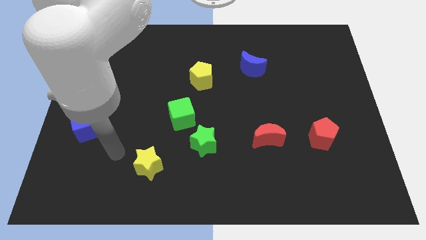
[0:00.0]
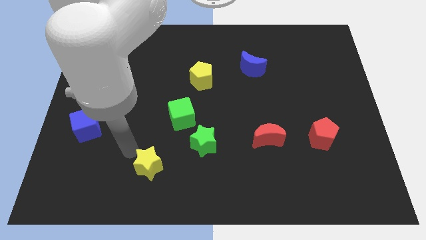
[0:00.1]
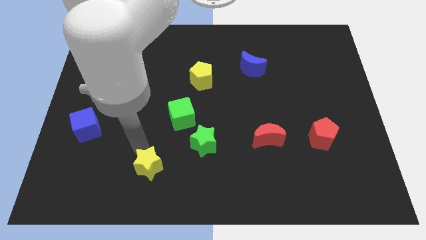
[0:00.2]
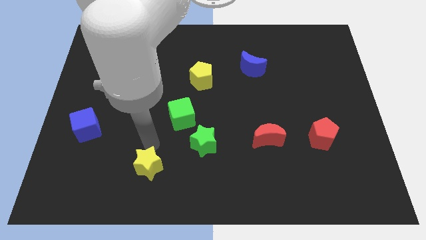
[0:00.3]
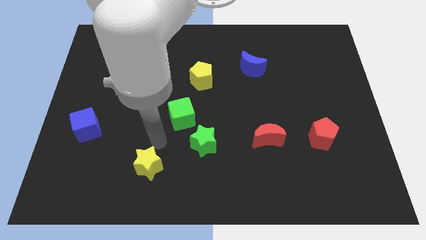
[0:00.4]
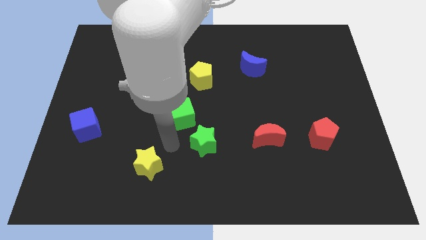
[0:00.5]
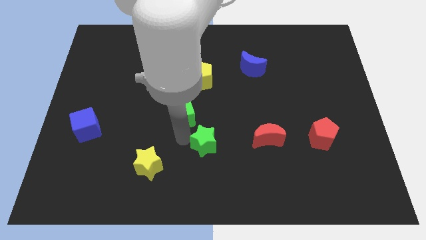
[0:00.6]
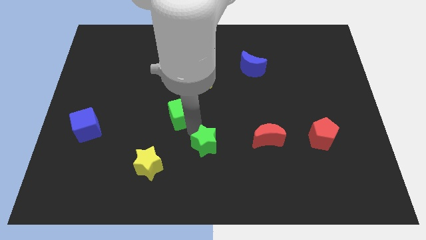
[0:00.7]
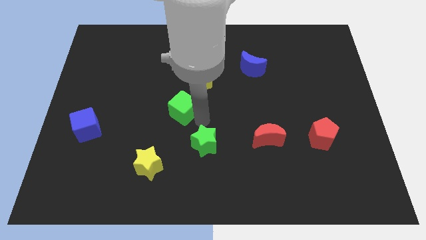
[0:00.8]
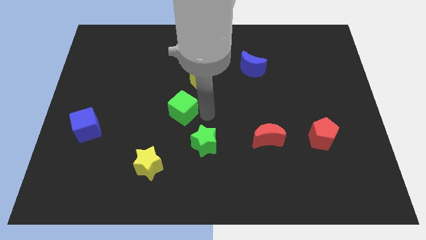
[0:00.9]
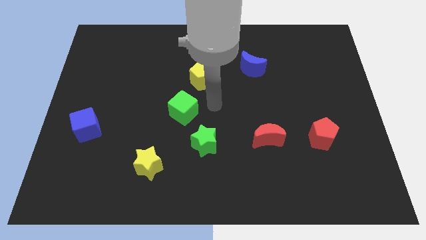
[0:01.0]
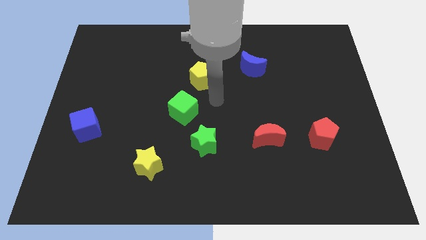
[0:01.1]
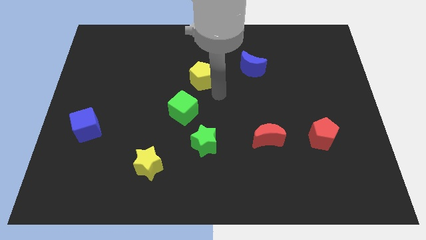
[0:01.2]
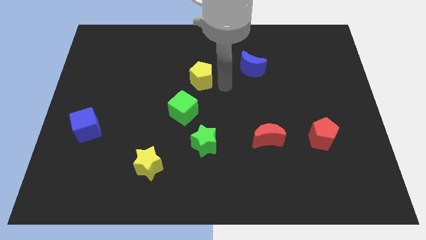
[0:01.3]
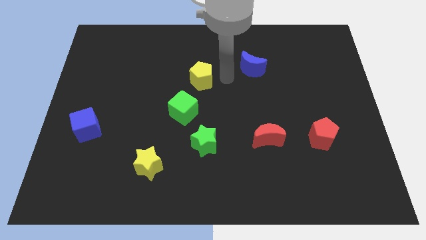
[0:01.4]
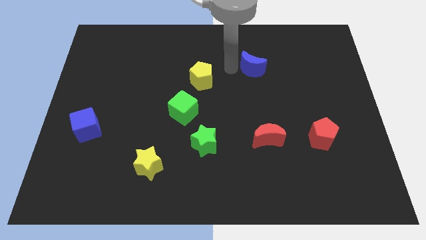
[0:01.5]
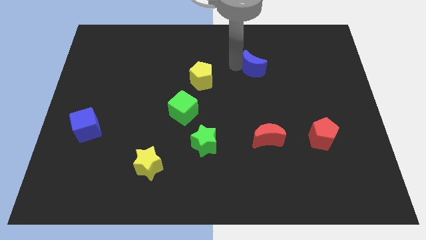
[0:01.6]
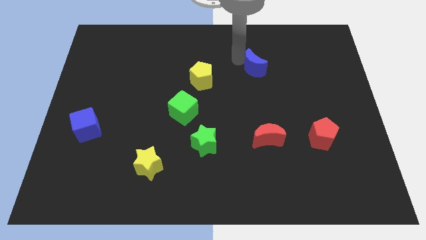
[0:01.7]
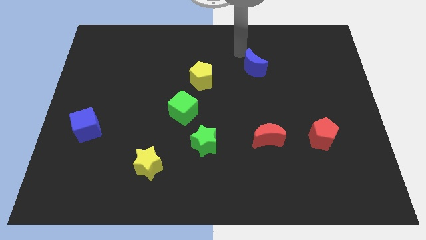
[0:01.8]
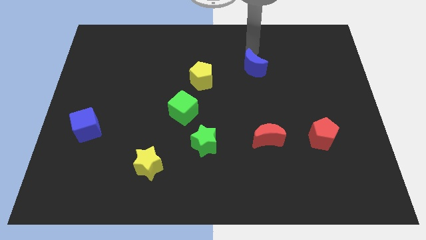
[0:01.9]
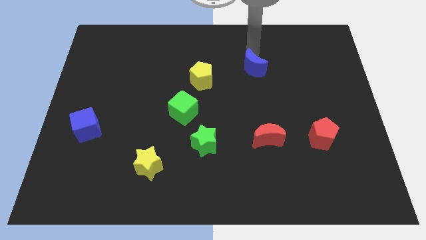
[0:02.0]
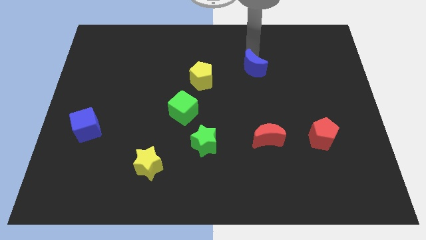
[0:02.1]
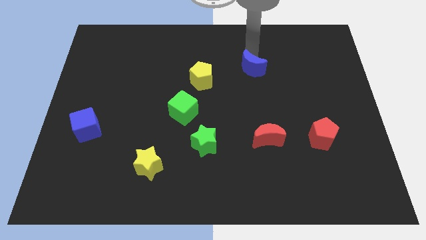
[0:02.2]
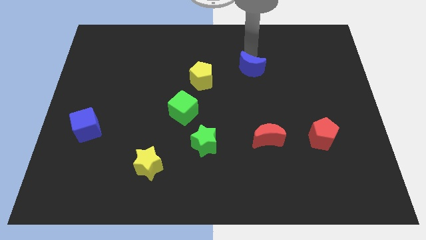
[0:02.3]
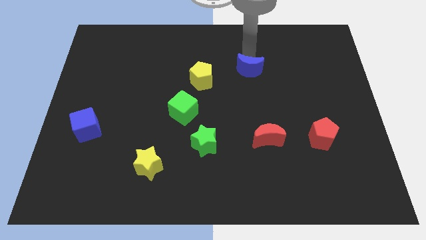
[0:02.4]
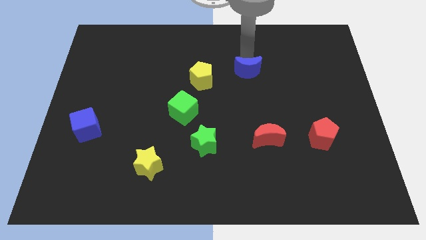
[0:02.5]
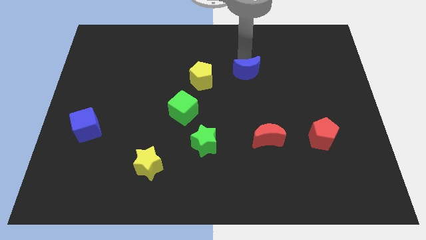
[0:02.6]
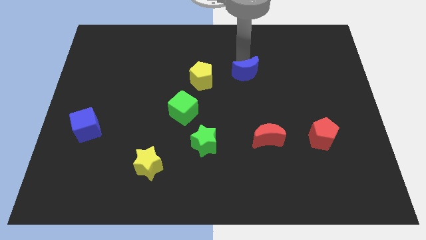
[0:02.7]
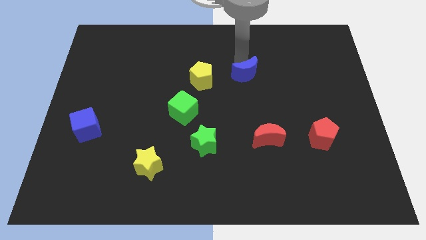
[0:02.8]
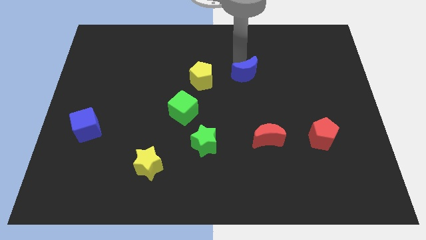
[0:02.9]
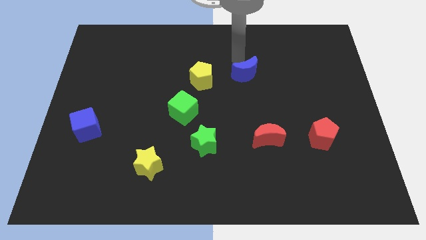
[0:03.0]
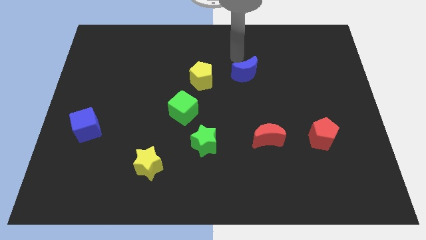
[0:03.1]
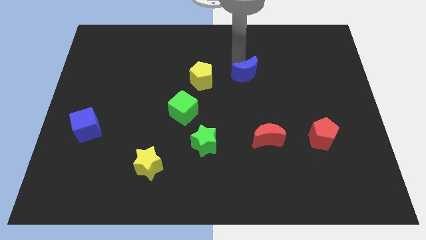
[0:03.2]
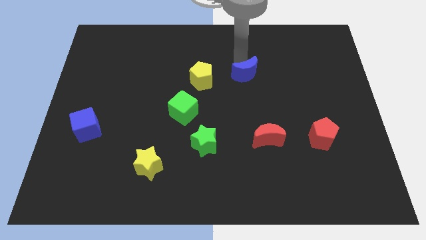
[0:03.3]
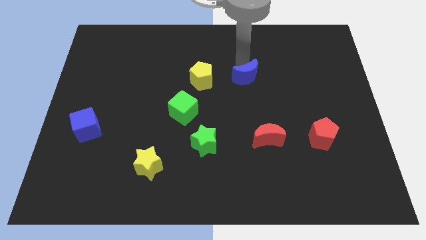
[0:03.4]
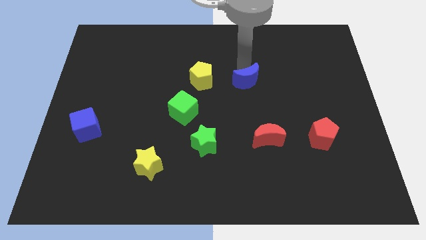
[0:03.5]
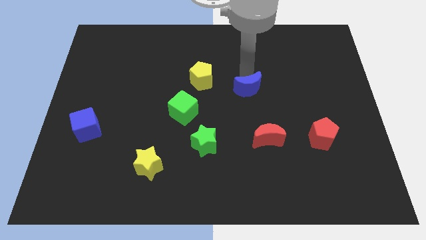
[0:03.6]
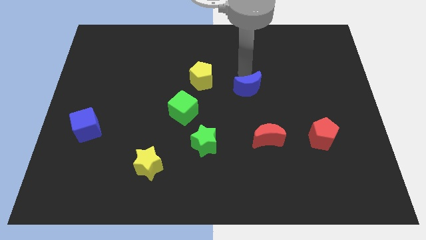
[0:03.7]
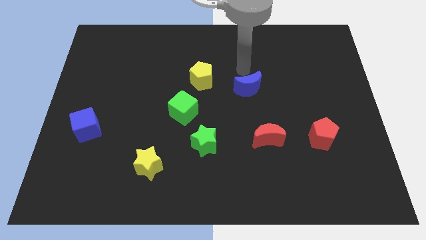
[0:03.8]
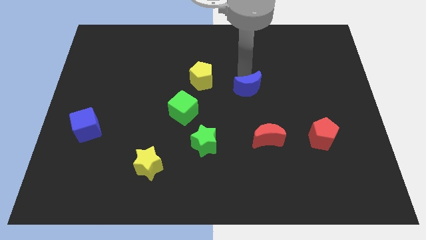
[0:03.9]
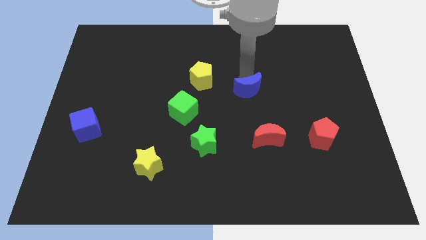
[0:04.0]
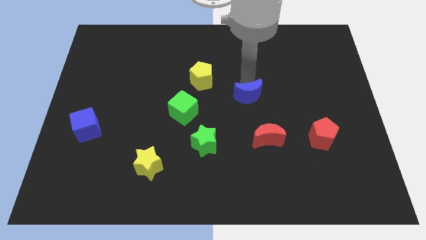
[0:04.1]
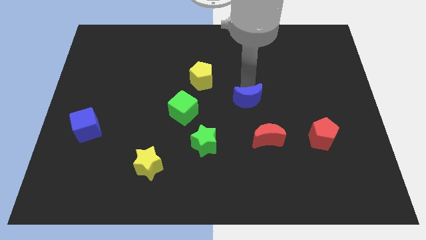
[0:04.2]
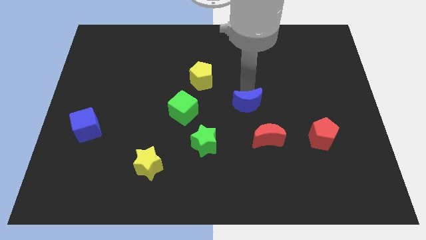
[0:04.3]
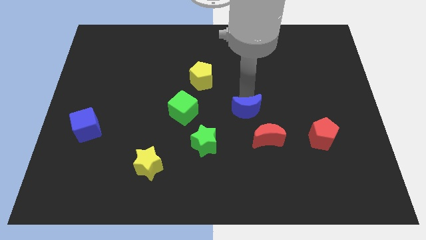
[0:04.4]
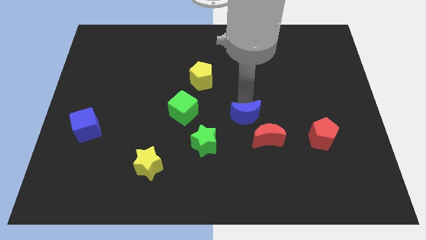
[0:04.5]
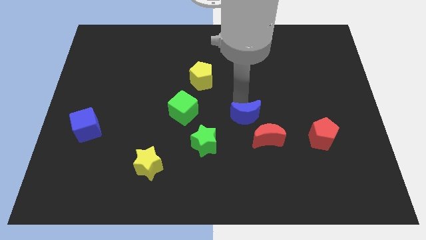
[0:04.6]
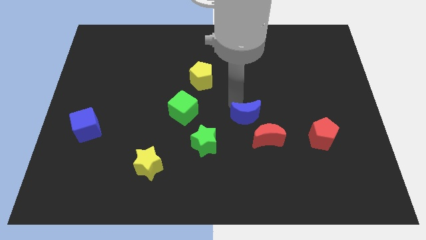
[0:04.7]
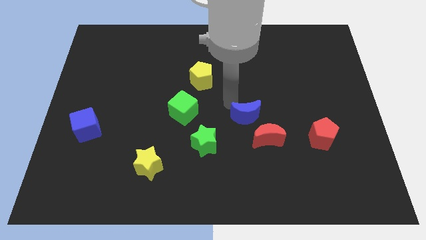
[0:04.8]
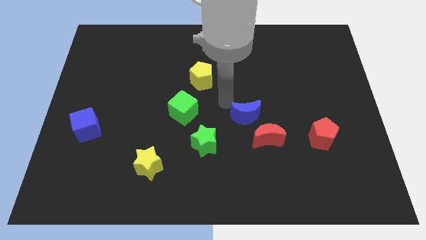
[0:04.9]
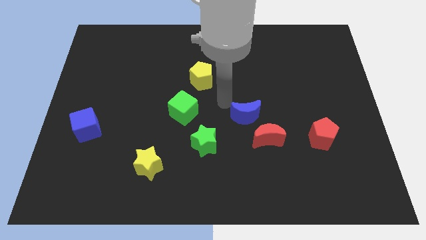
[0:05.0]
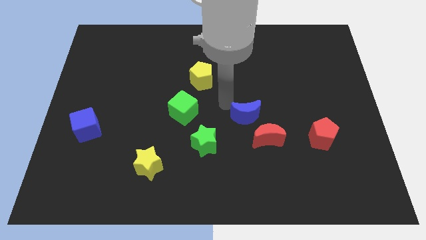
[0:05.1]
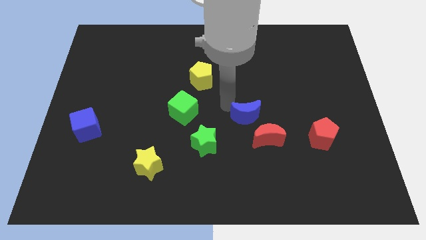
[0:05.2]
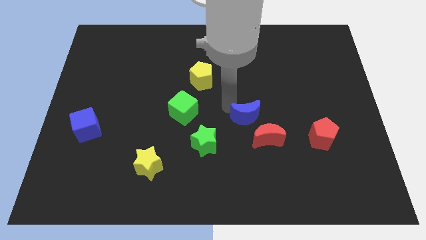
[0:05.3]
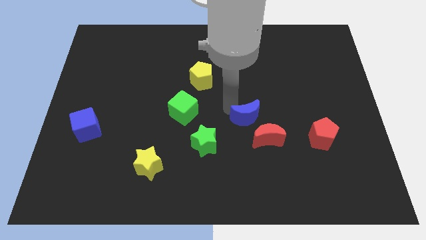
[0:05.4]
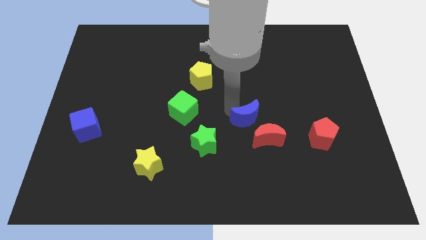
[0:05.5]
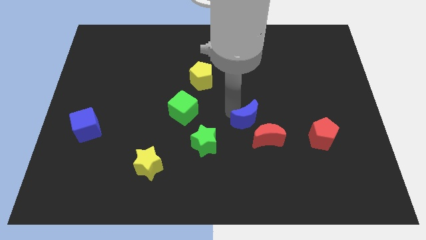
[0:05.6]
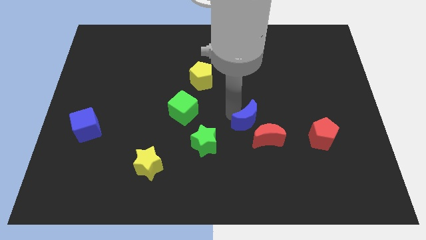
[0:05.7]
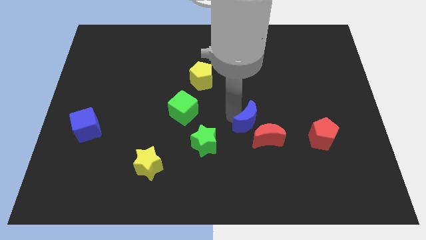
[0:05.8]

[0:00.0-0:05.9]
move the blue moon to the red moon
